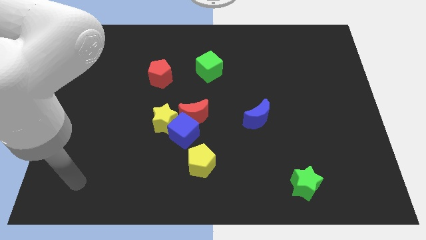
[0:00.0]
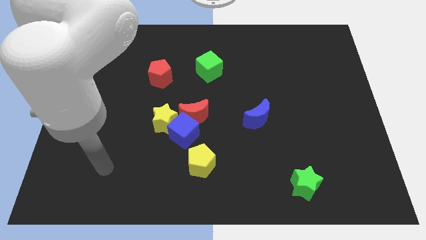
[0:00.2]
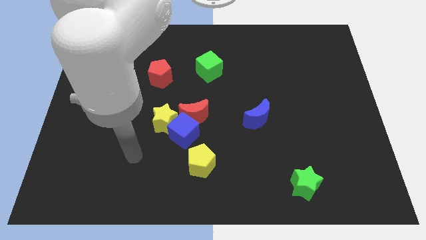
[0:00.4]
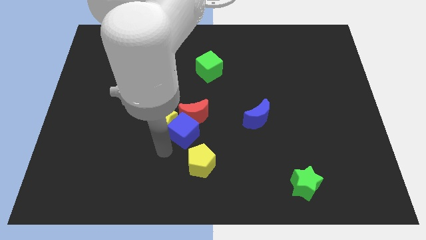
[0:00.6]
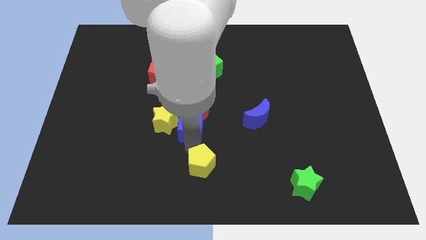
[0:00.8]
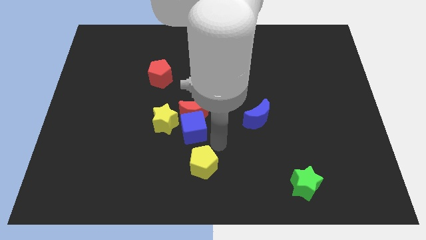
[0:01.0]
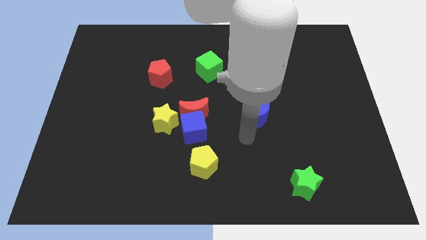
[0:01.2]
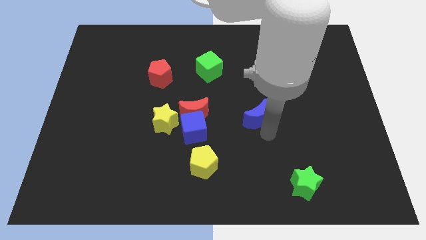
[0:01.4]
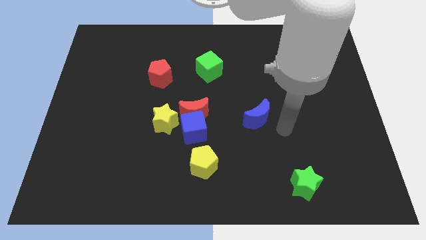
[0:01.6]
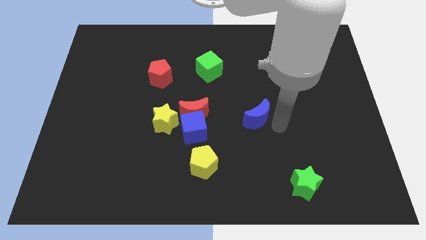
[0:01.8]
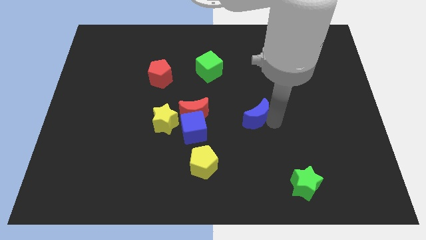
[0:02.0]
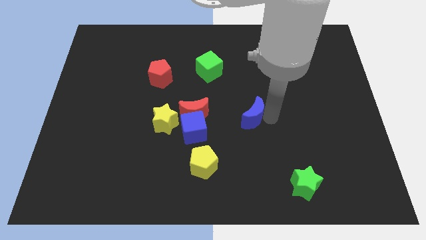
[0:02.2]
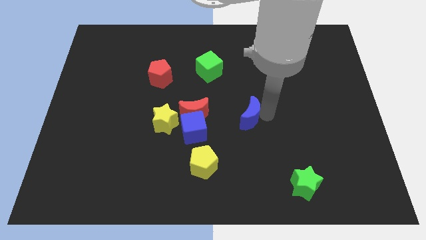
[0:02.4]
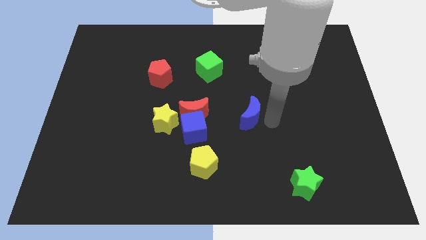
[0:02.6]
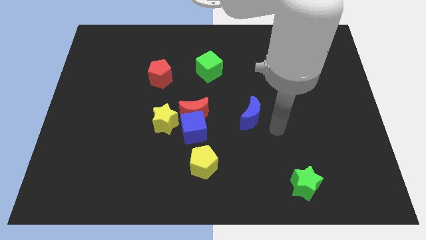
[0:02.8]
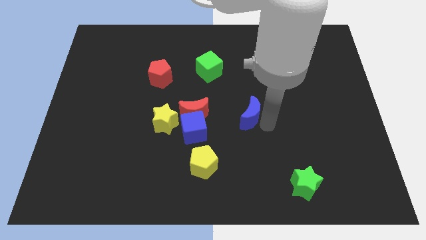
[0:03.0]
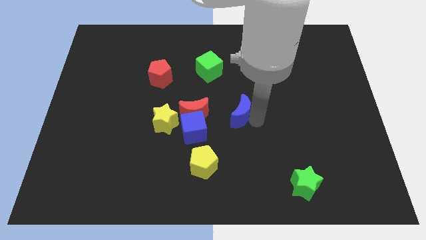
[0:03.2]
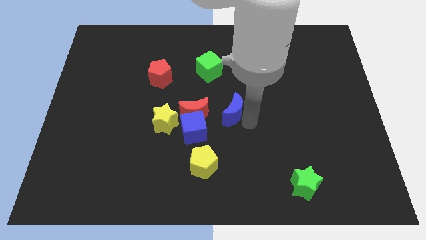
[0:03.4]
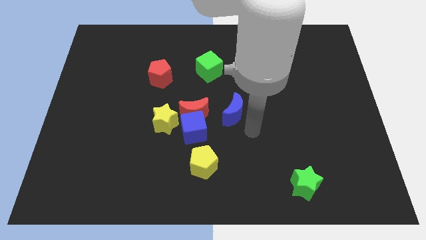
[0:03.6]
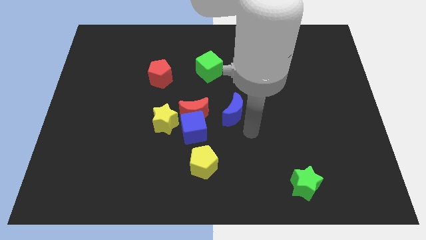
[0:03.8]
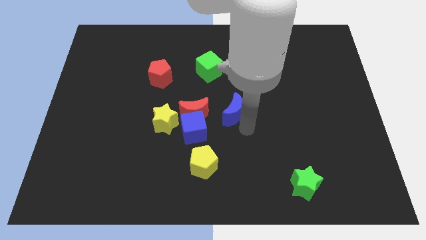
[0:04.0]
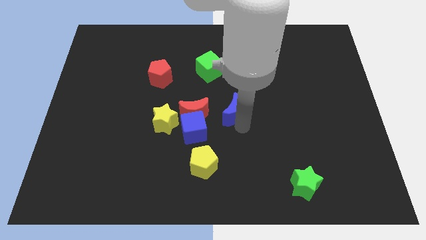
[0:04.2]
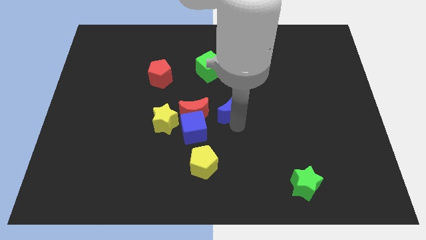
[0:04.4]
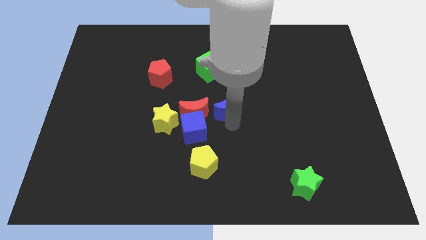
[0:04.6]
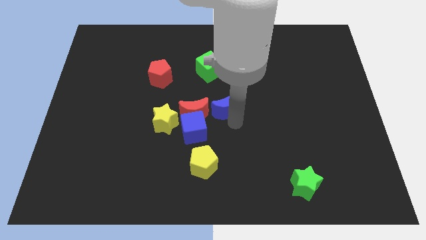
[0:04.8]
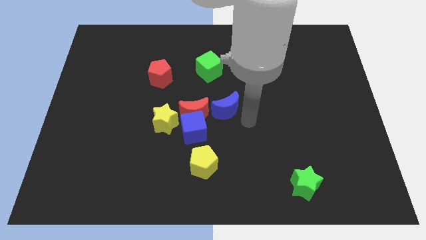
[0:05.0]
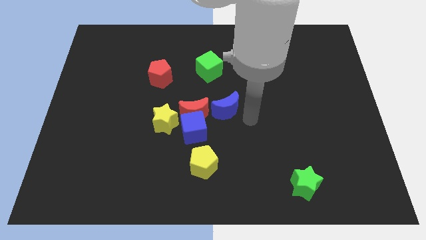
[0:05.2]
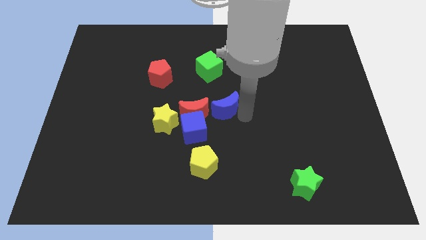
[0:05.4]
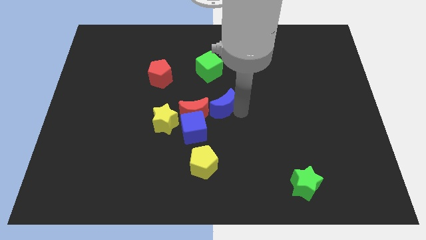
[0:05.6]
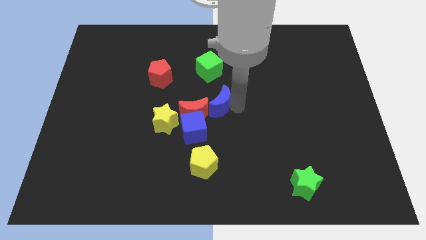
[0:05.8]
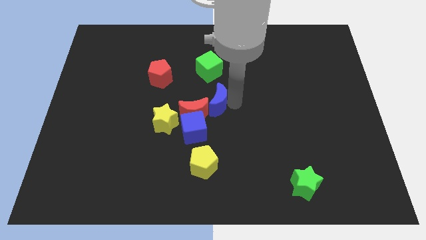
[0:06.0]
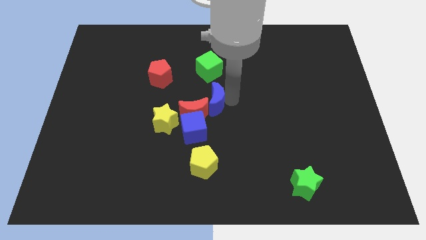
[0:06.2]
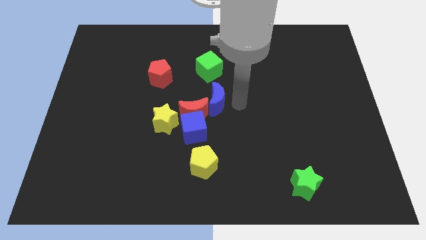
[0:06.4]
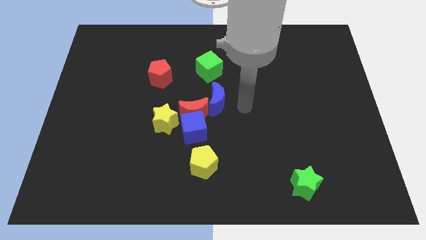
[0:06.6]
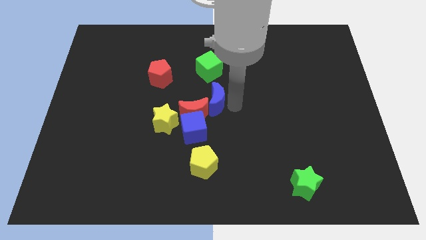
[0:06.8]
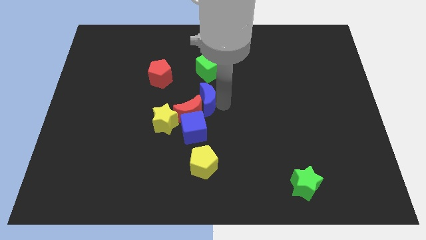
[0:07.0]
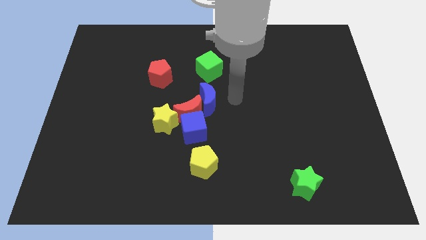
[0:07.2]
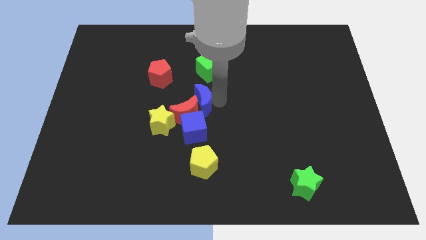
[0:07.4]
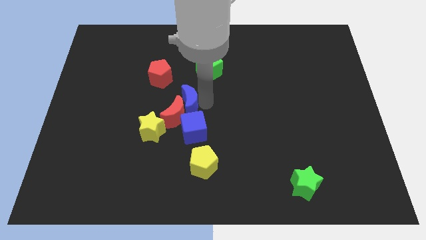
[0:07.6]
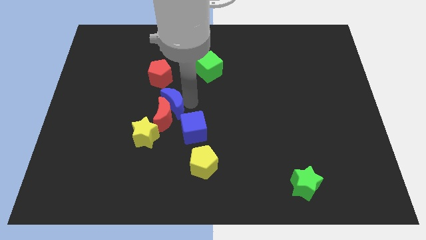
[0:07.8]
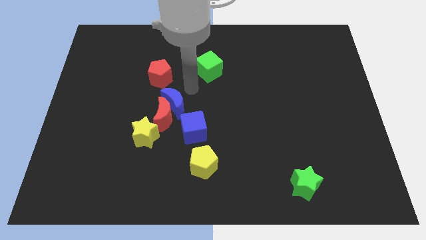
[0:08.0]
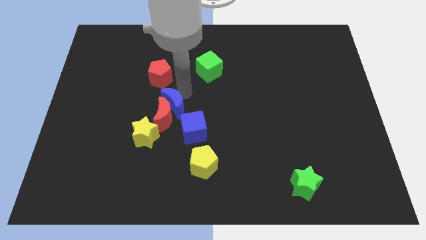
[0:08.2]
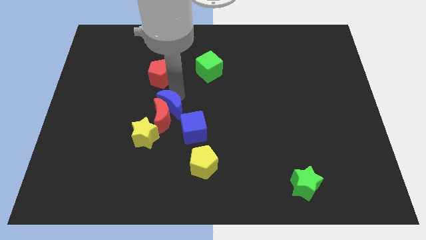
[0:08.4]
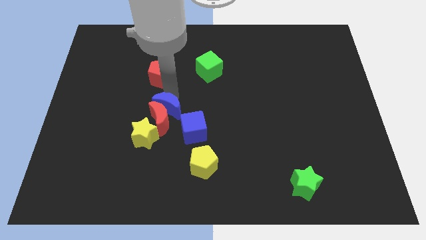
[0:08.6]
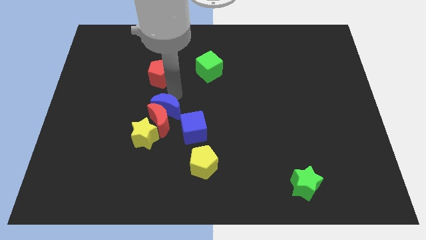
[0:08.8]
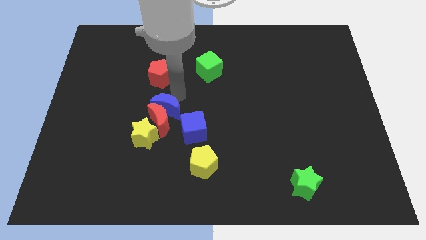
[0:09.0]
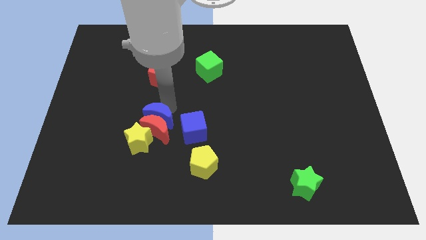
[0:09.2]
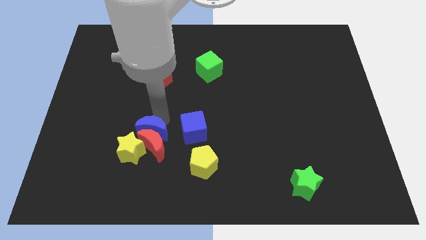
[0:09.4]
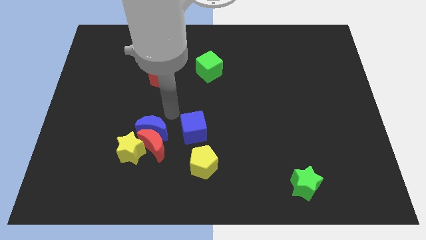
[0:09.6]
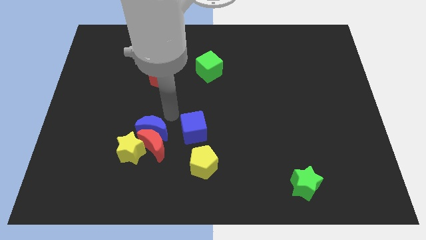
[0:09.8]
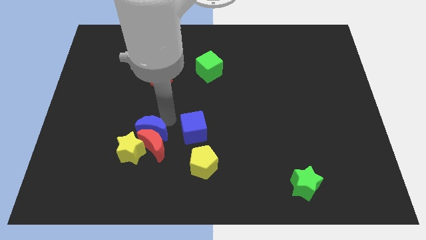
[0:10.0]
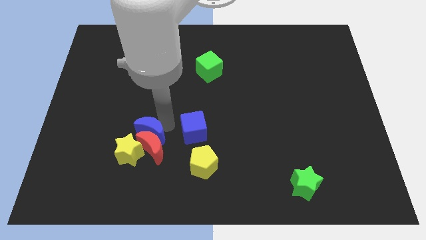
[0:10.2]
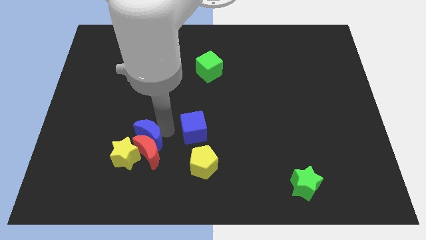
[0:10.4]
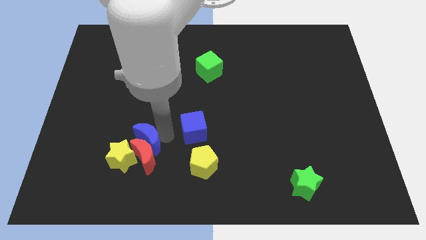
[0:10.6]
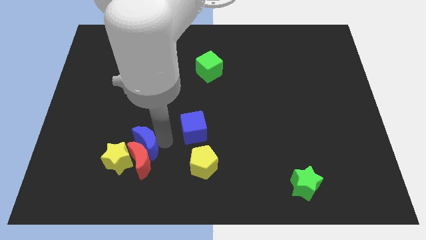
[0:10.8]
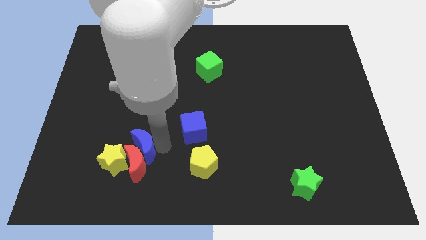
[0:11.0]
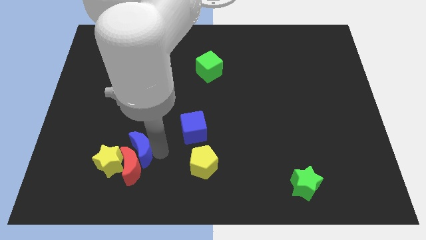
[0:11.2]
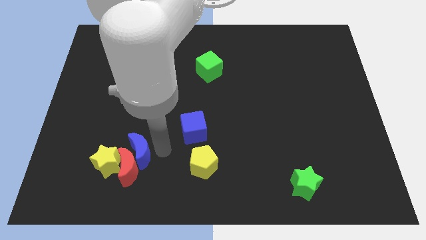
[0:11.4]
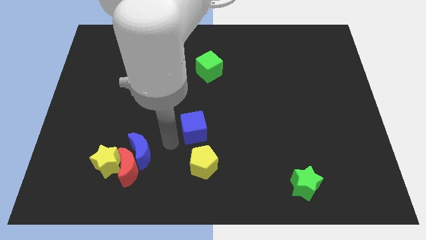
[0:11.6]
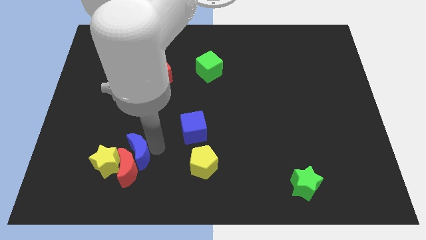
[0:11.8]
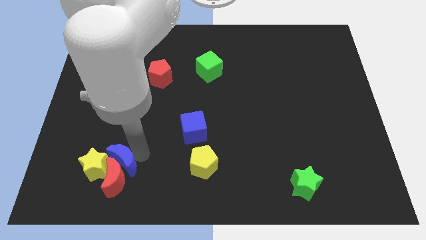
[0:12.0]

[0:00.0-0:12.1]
push the blue moon close to the yellow star

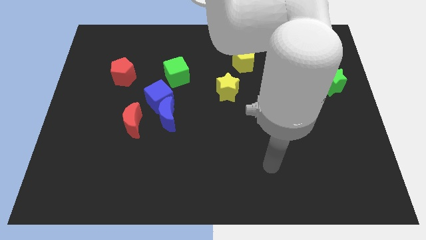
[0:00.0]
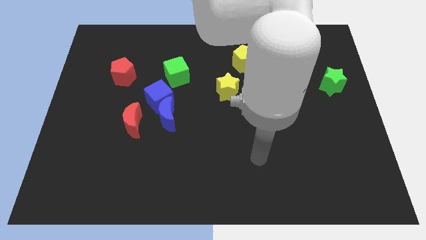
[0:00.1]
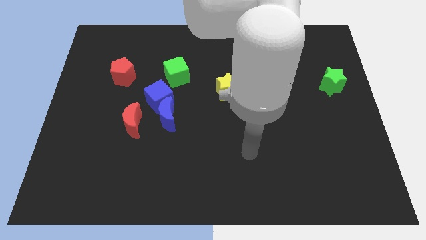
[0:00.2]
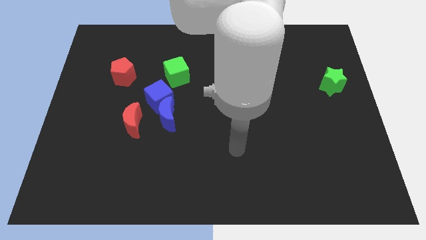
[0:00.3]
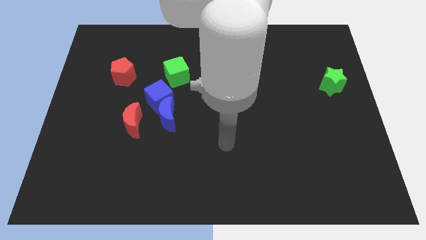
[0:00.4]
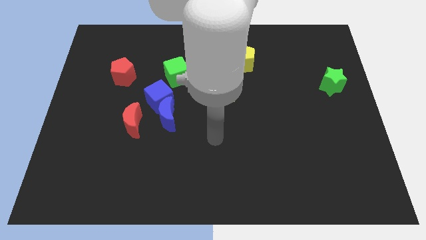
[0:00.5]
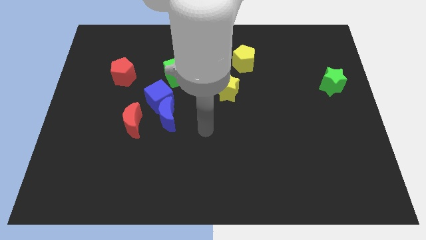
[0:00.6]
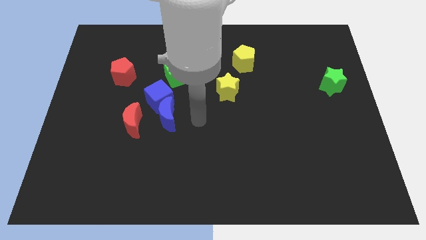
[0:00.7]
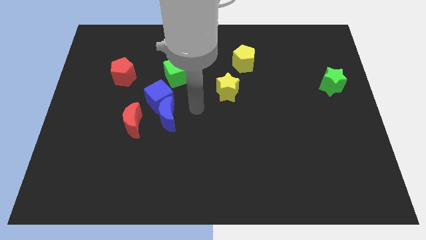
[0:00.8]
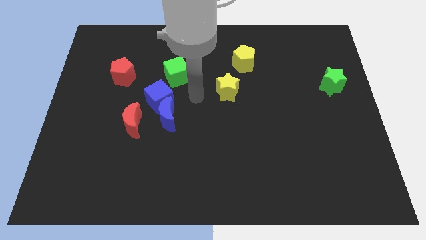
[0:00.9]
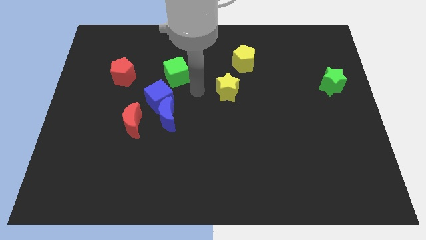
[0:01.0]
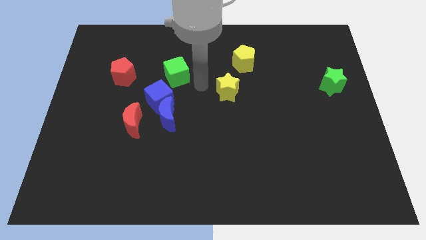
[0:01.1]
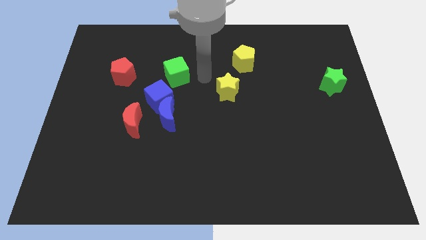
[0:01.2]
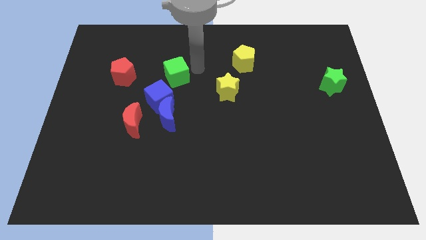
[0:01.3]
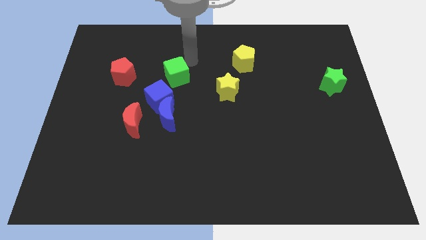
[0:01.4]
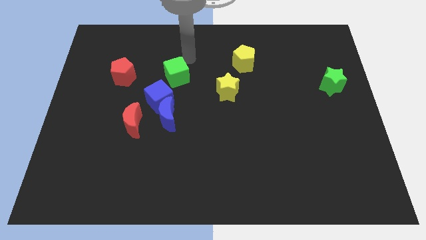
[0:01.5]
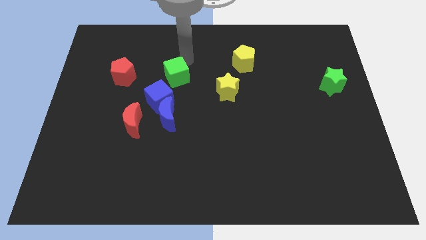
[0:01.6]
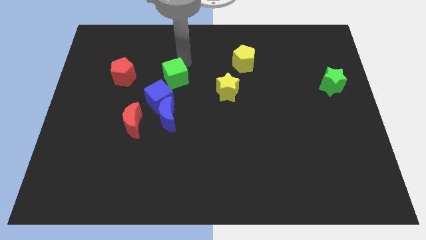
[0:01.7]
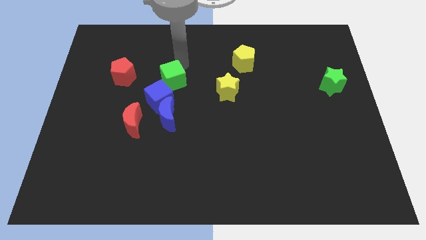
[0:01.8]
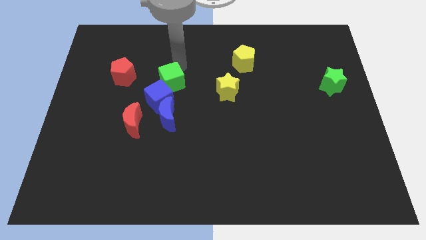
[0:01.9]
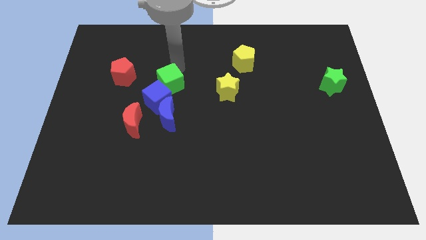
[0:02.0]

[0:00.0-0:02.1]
slide the green cube to the blue cube
